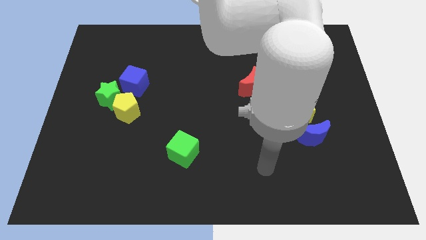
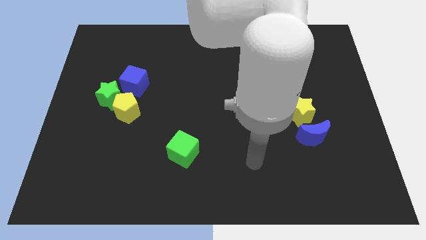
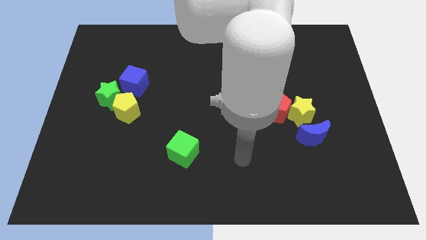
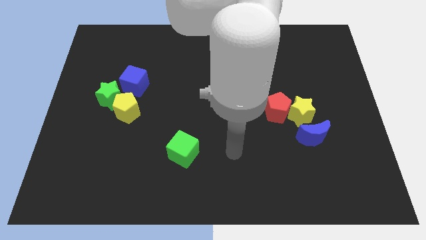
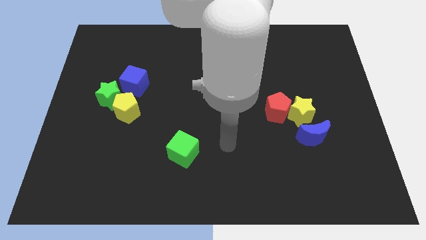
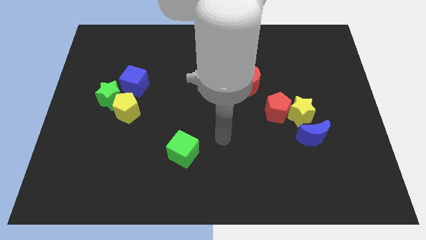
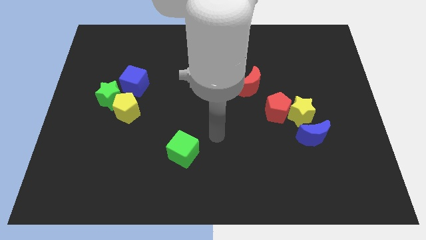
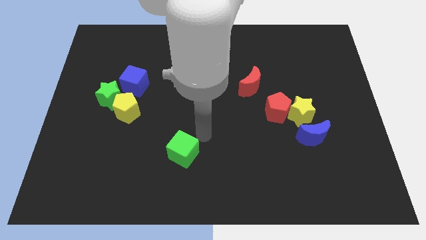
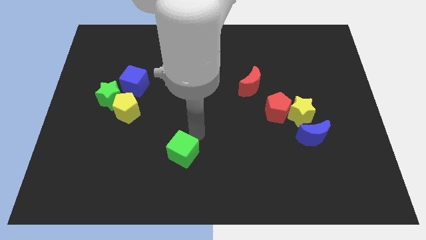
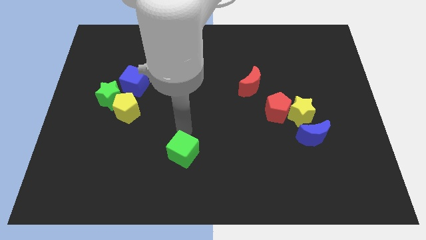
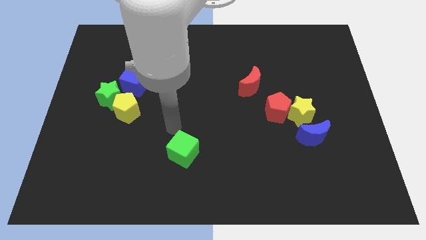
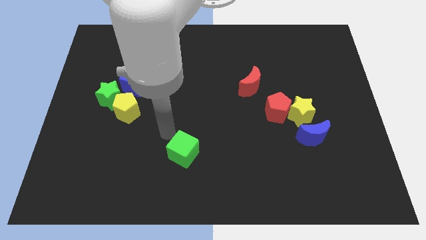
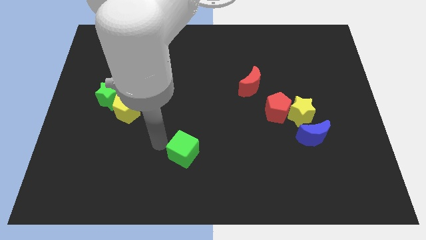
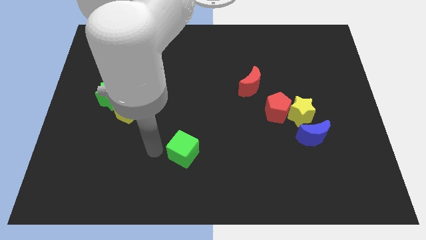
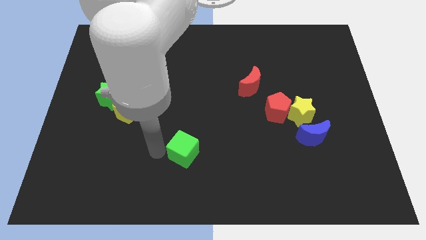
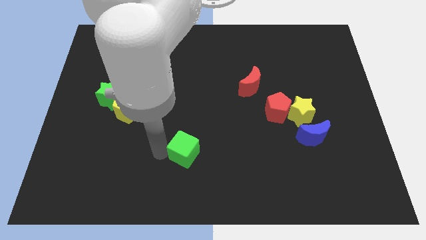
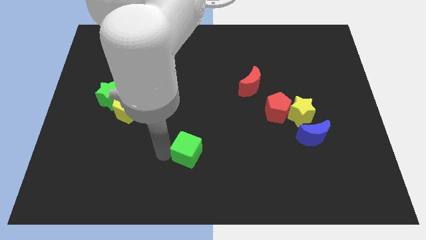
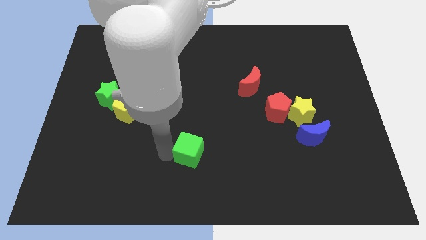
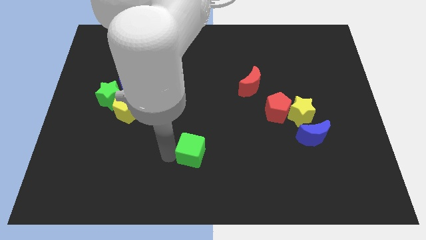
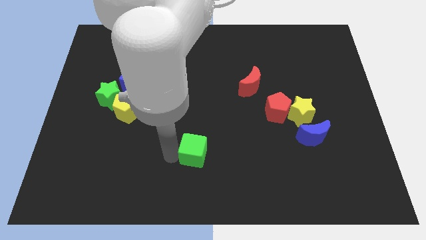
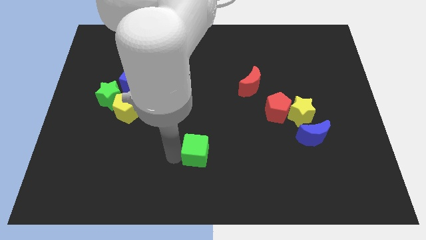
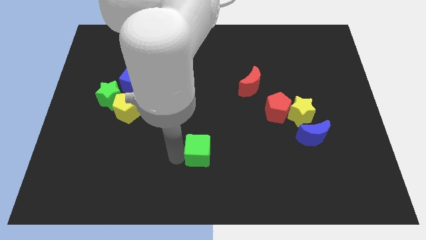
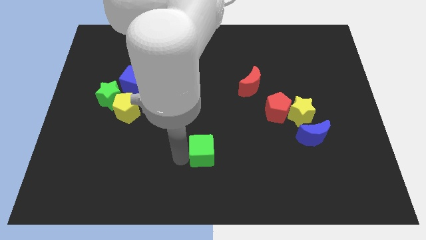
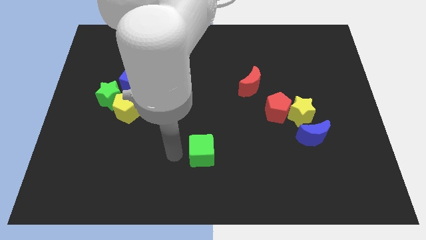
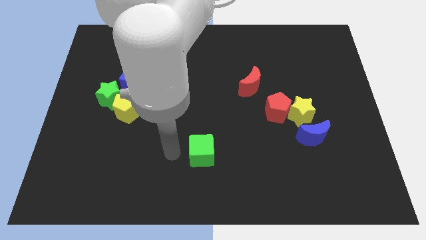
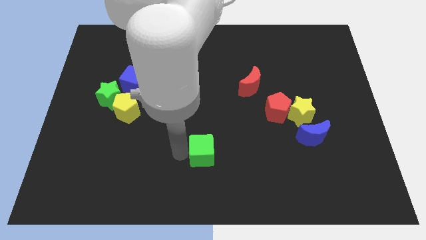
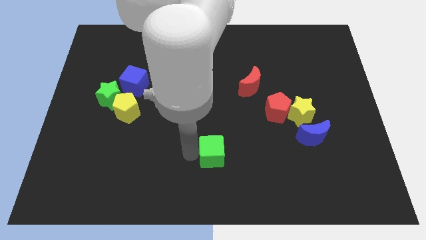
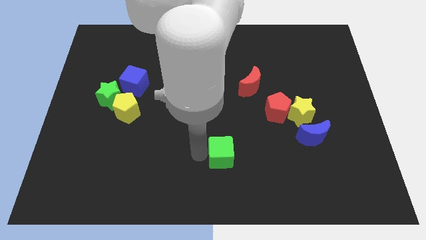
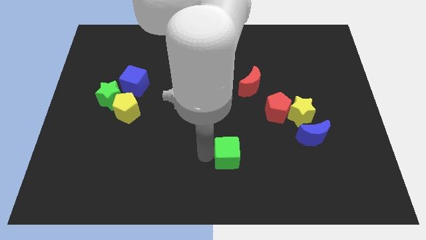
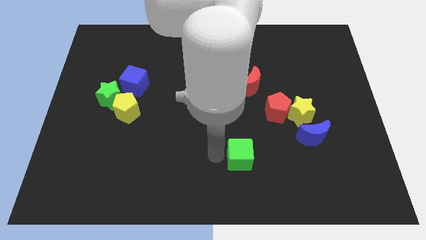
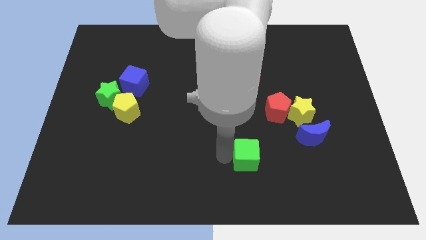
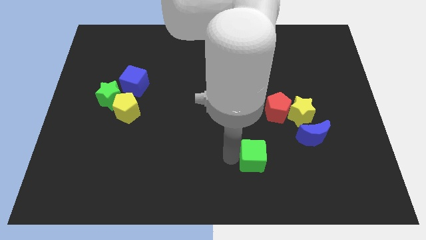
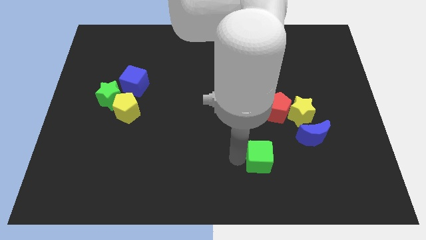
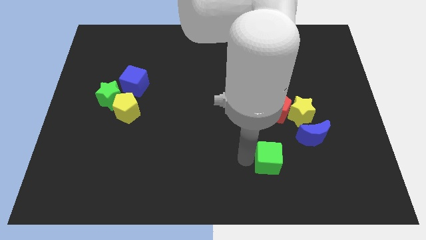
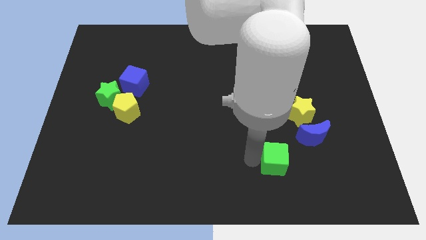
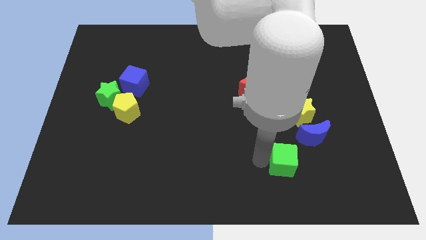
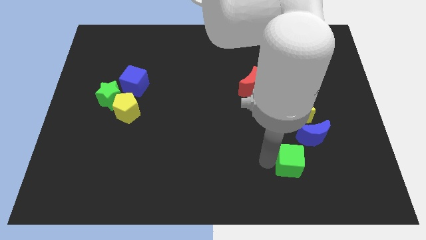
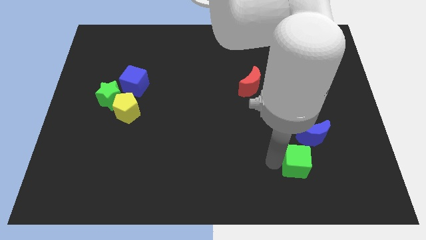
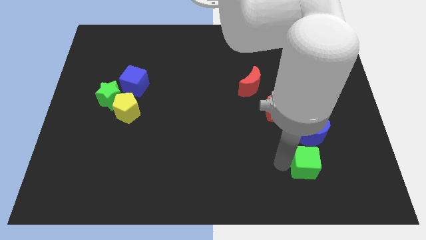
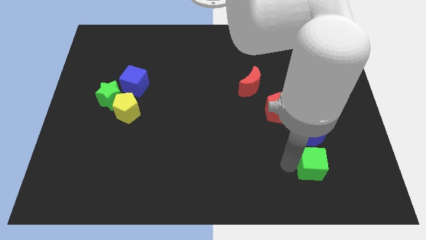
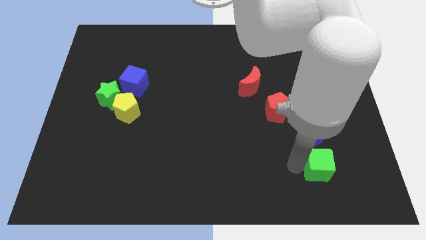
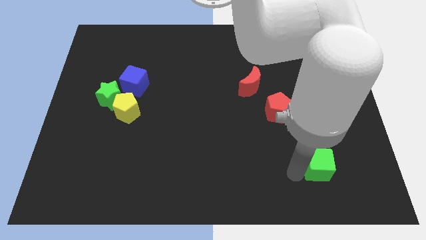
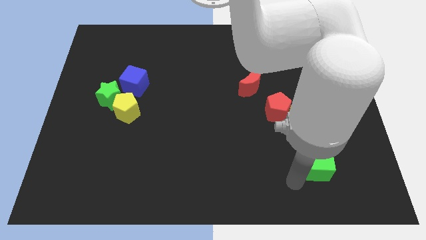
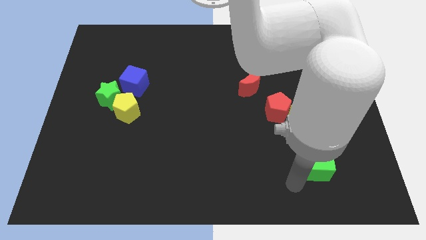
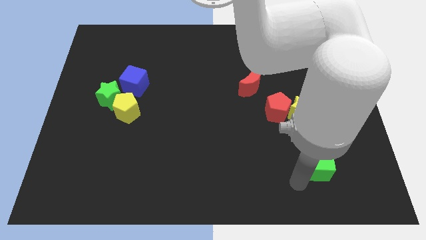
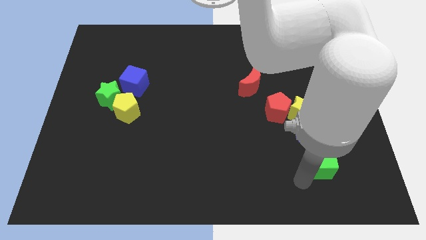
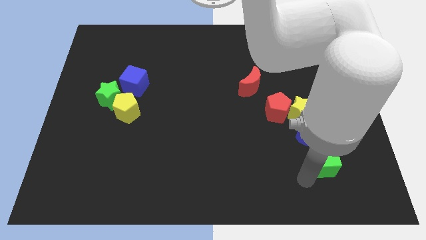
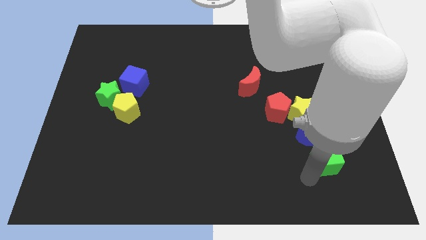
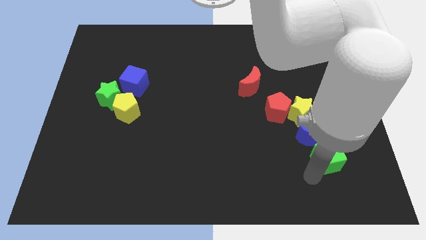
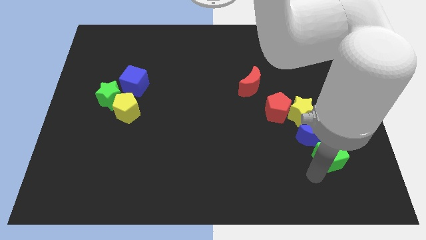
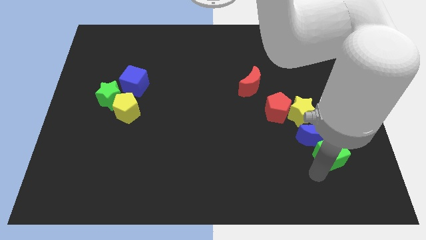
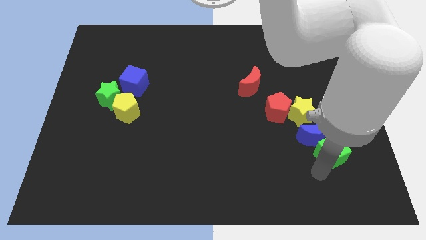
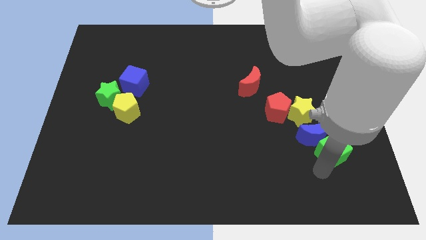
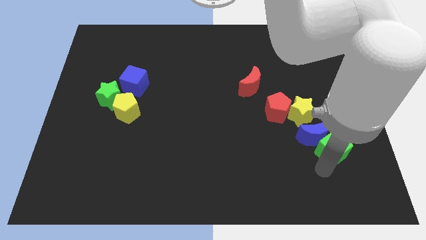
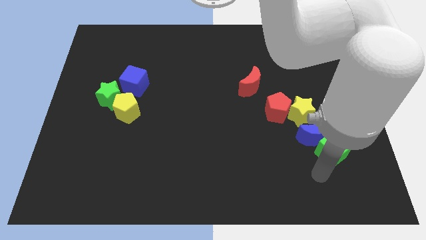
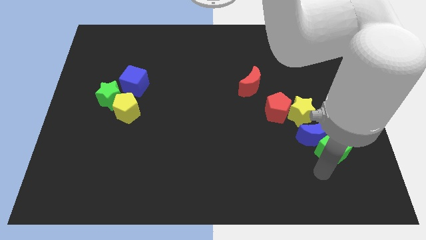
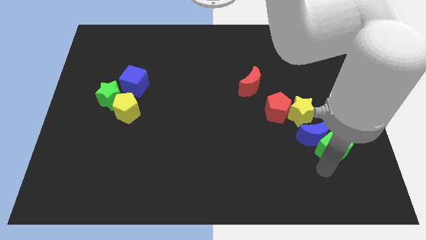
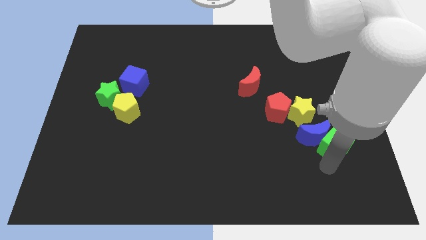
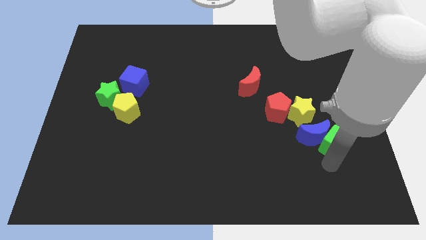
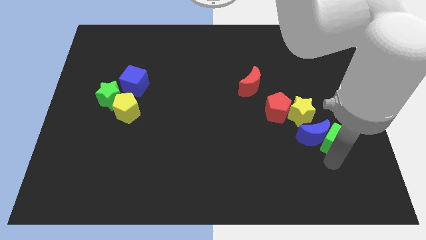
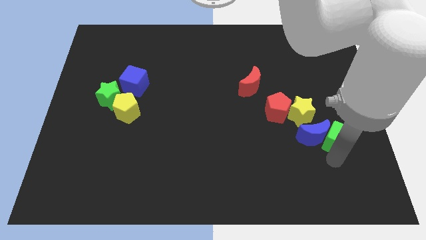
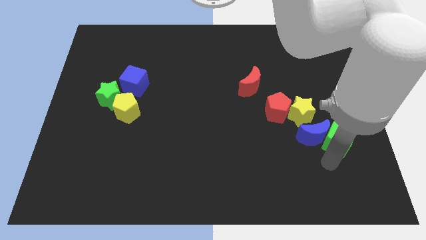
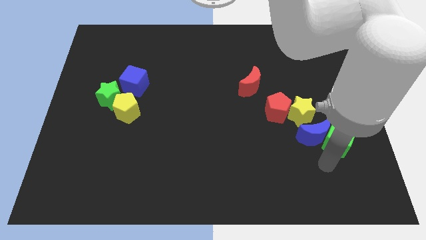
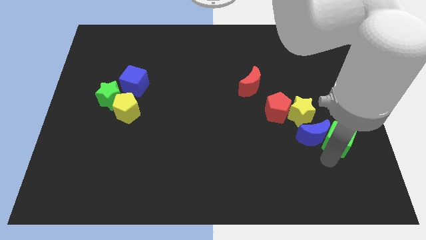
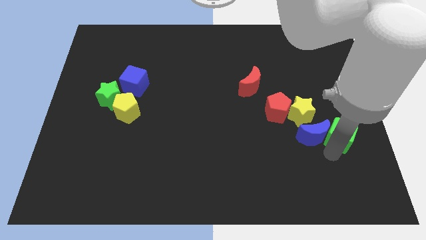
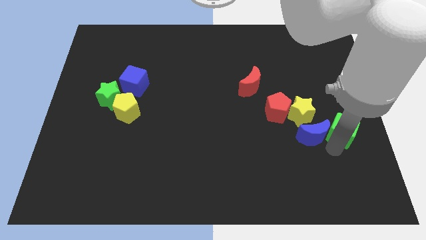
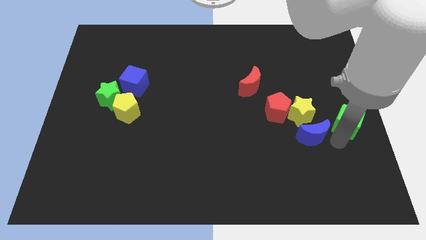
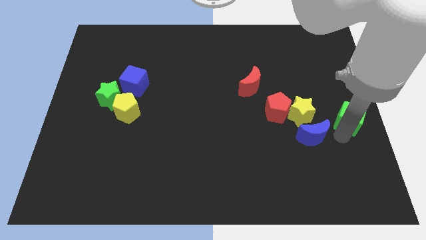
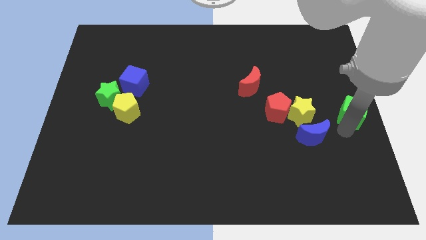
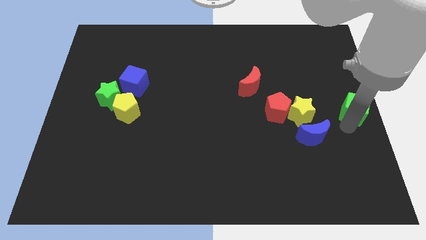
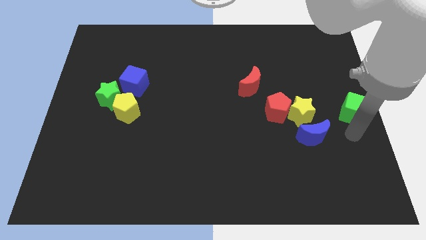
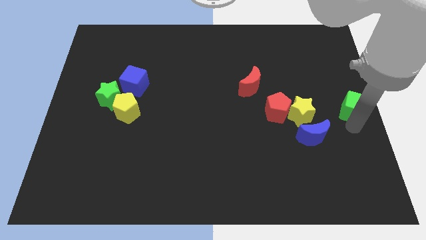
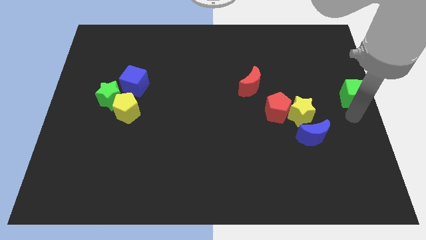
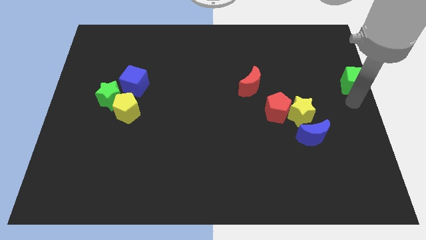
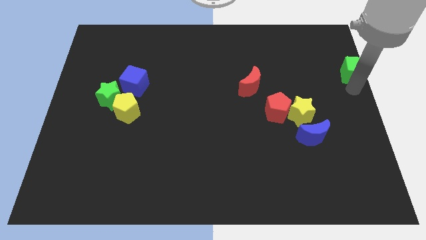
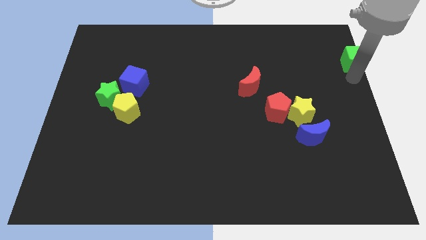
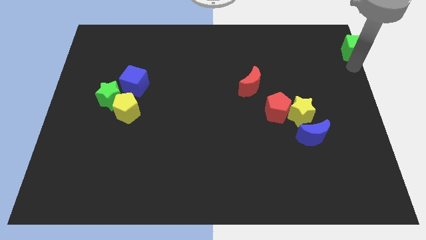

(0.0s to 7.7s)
slide the green cube to the upper right corner
